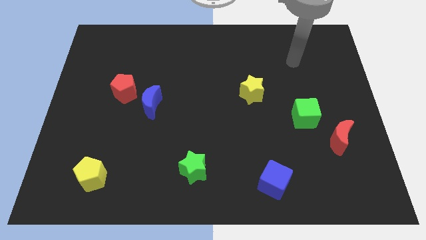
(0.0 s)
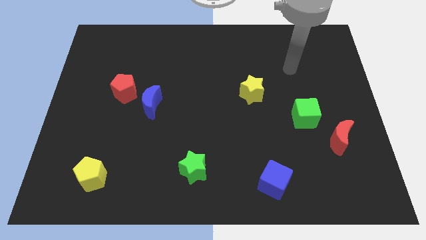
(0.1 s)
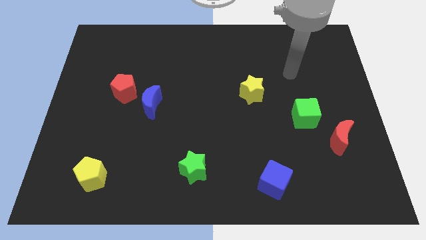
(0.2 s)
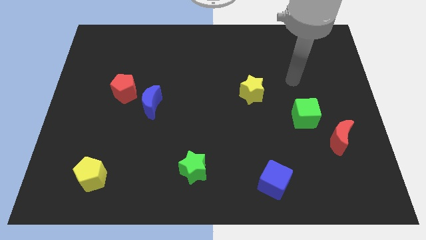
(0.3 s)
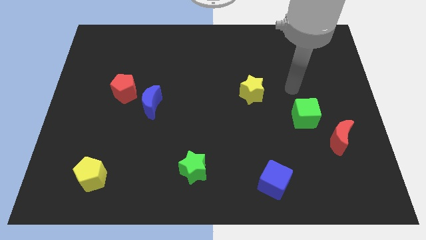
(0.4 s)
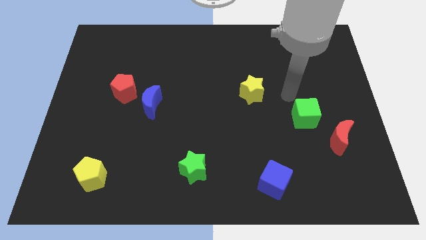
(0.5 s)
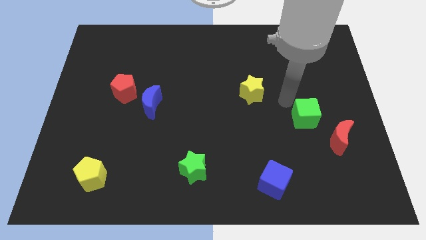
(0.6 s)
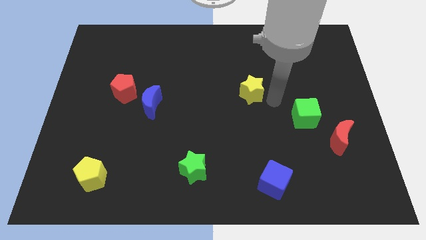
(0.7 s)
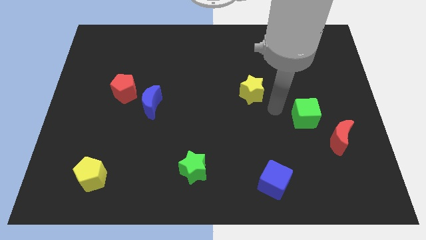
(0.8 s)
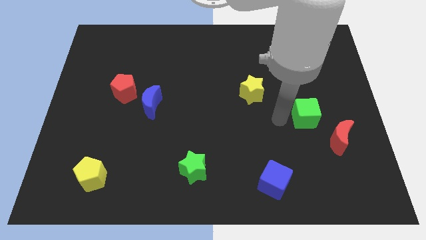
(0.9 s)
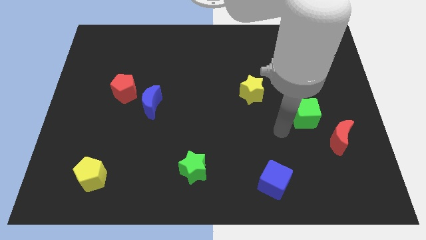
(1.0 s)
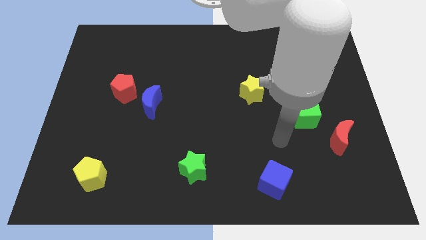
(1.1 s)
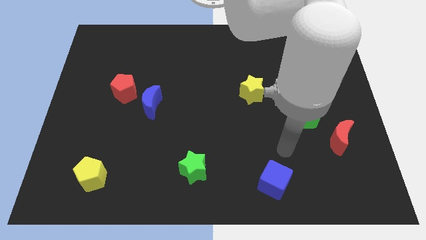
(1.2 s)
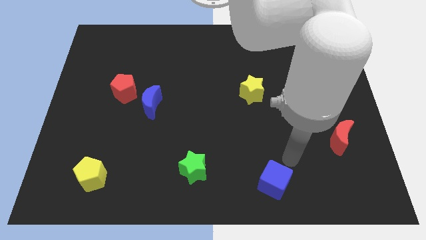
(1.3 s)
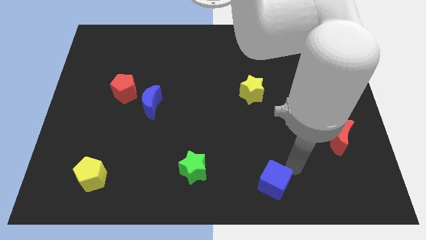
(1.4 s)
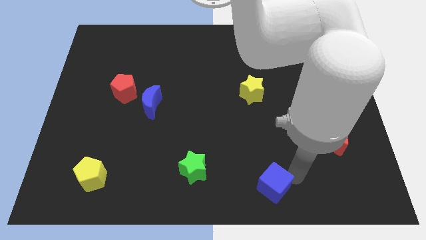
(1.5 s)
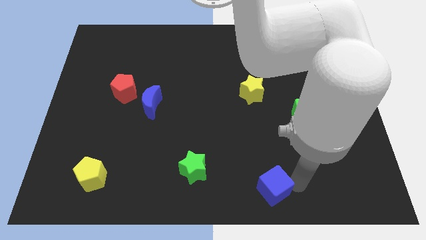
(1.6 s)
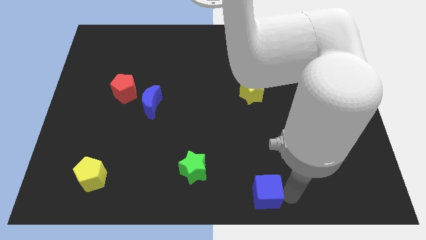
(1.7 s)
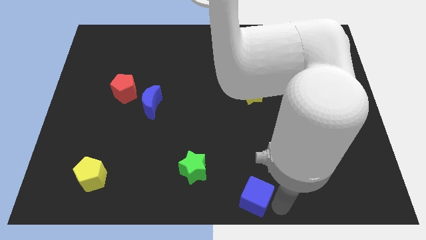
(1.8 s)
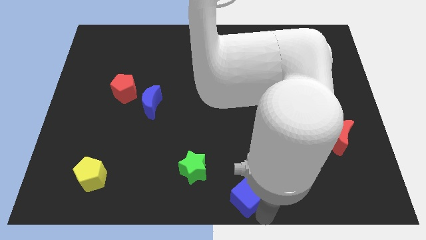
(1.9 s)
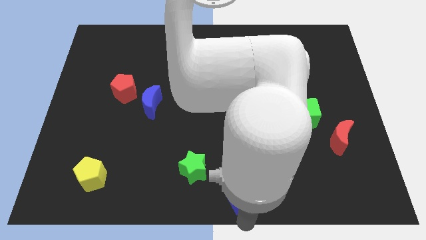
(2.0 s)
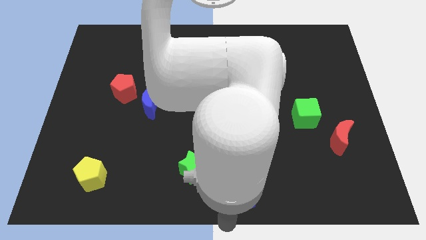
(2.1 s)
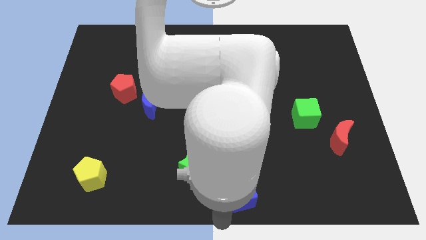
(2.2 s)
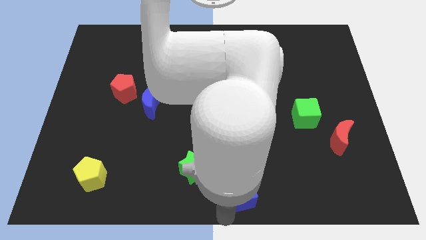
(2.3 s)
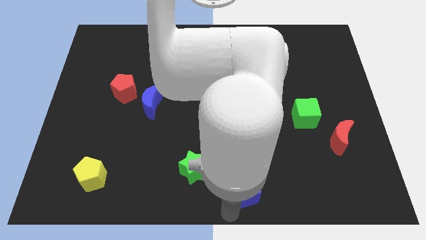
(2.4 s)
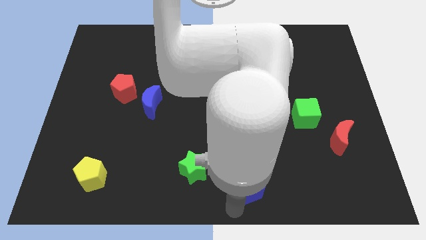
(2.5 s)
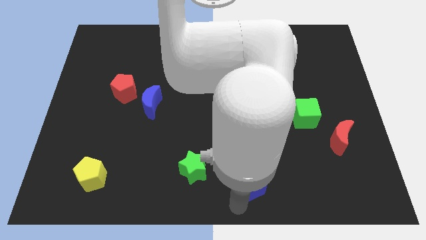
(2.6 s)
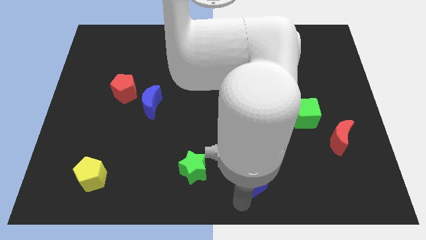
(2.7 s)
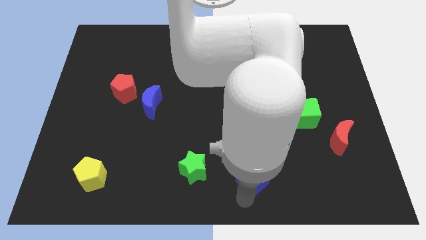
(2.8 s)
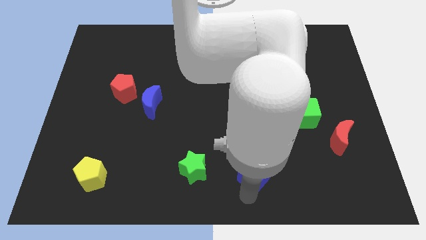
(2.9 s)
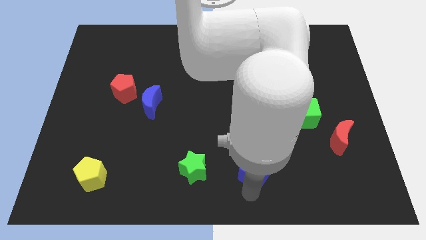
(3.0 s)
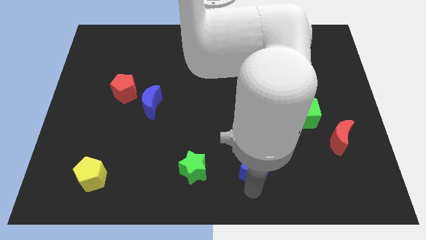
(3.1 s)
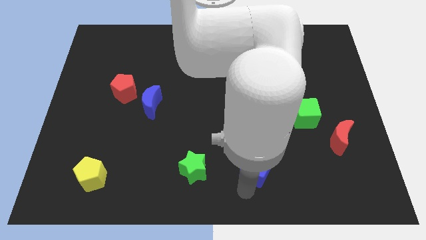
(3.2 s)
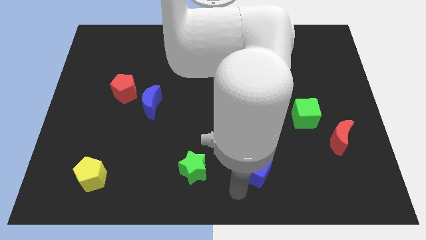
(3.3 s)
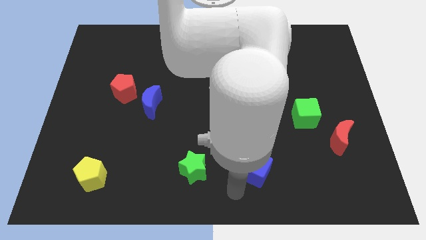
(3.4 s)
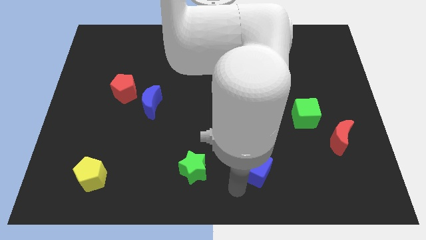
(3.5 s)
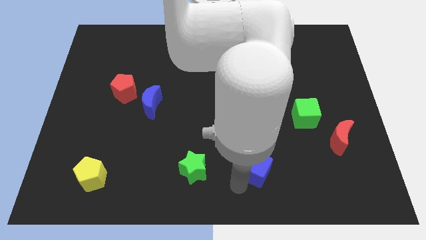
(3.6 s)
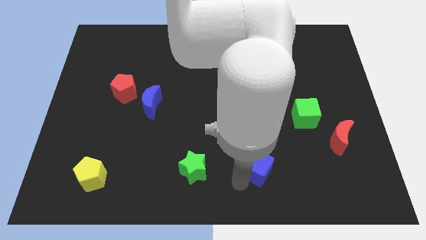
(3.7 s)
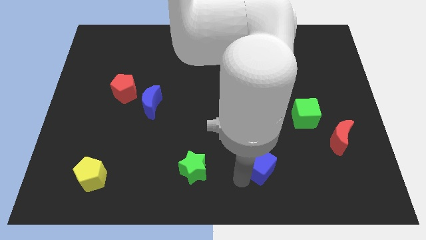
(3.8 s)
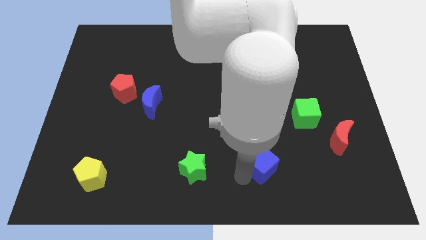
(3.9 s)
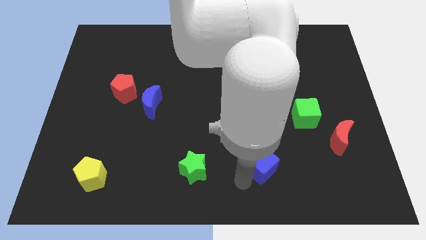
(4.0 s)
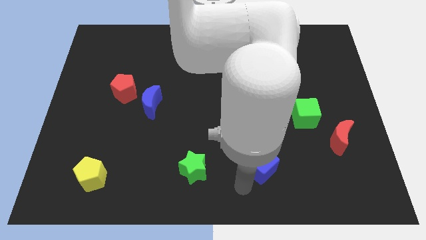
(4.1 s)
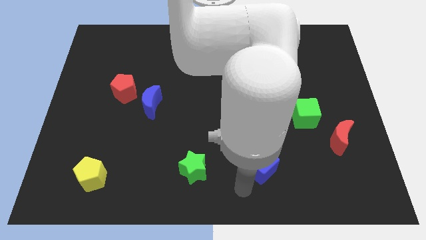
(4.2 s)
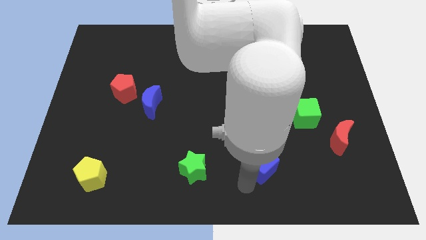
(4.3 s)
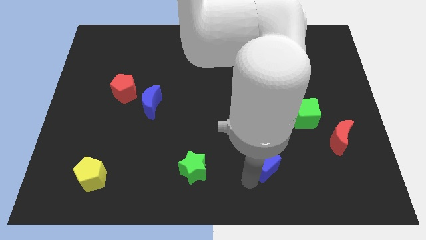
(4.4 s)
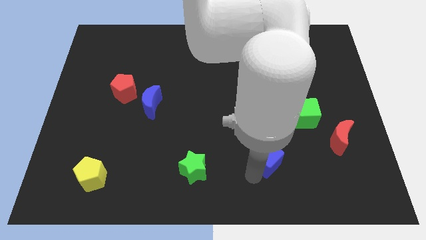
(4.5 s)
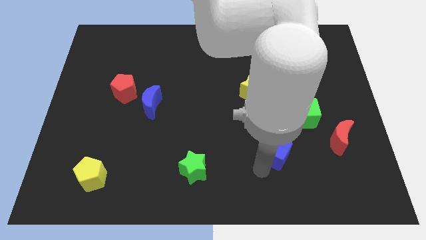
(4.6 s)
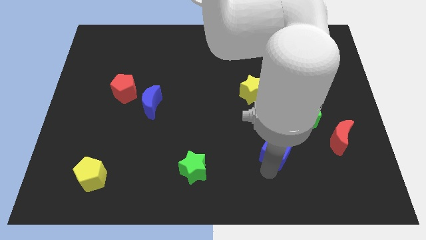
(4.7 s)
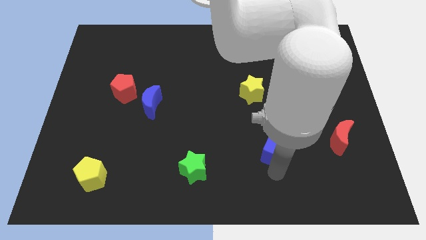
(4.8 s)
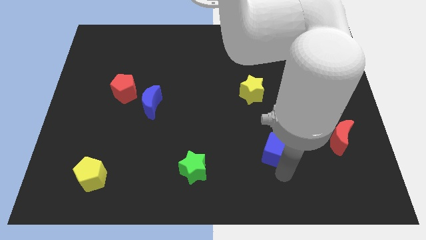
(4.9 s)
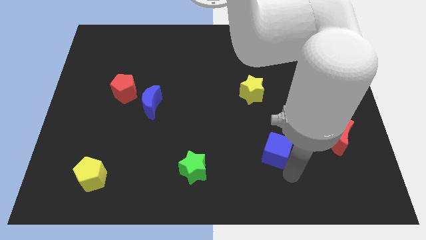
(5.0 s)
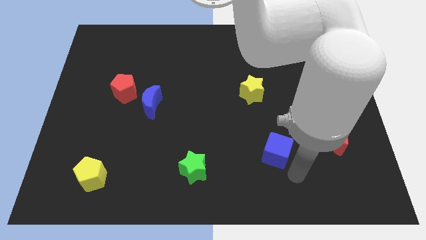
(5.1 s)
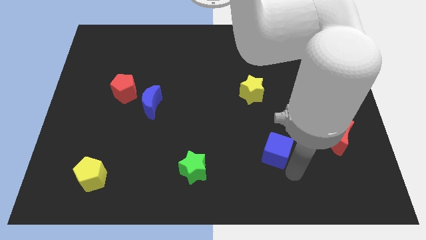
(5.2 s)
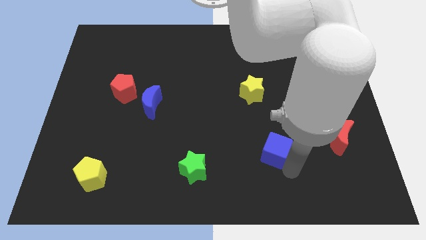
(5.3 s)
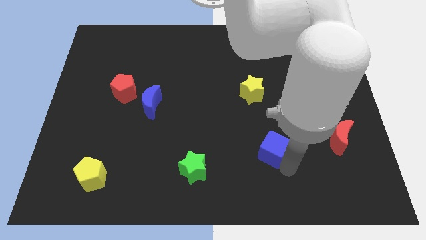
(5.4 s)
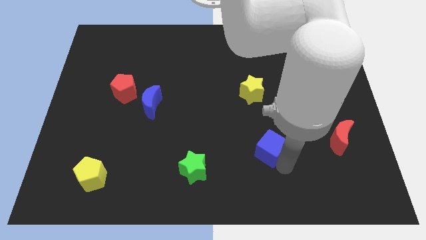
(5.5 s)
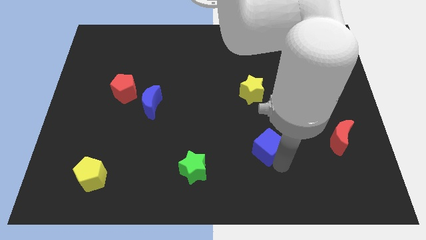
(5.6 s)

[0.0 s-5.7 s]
move the blue cube below the yellow star

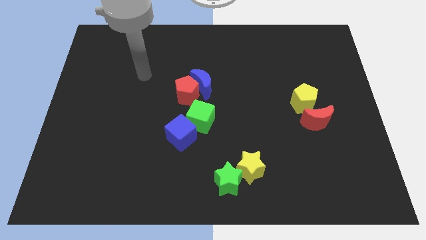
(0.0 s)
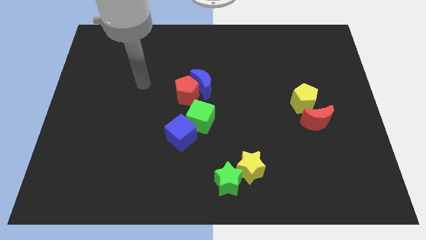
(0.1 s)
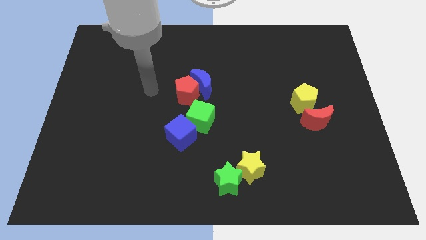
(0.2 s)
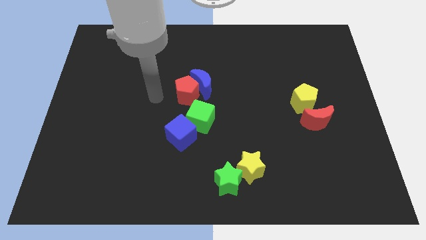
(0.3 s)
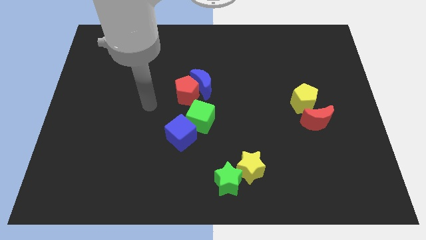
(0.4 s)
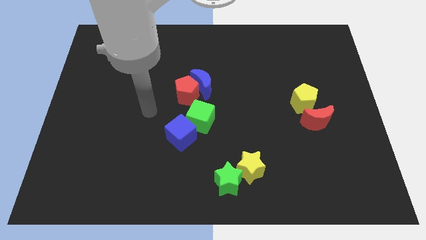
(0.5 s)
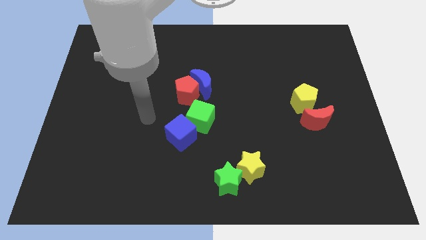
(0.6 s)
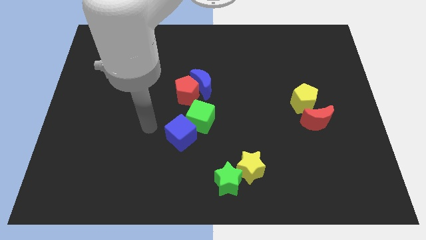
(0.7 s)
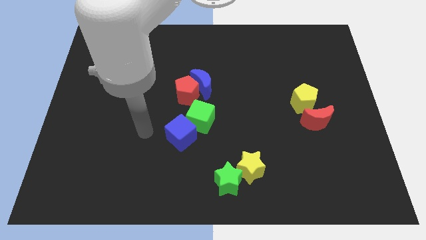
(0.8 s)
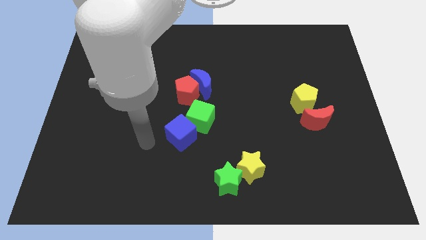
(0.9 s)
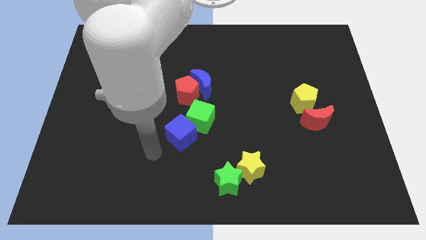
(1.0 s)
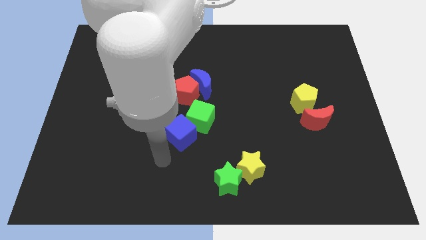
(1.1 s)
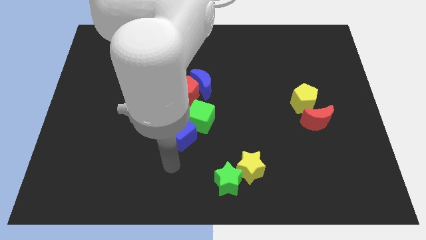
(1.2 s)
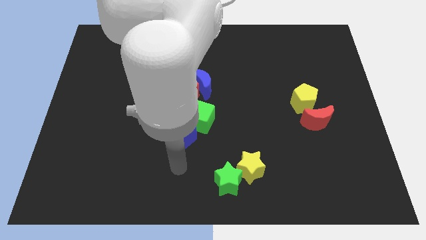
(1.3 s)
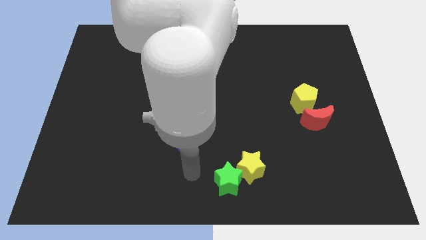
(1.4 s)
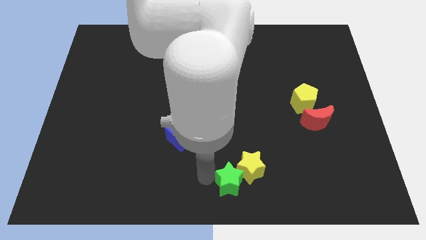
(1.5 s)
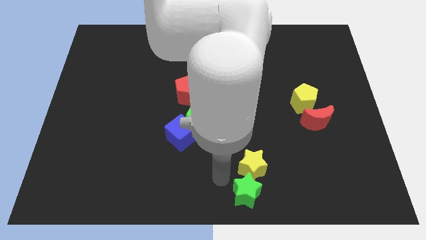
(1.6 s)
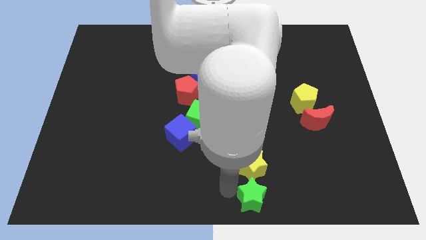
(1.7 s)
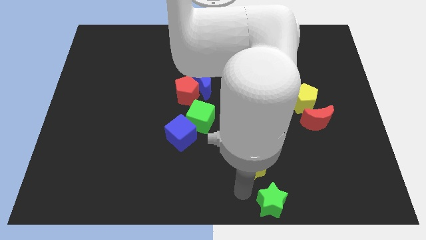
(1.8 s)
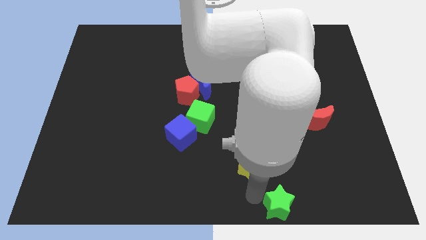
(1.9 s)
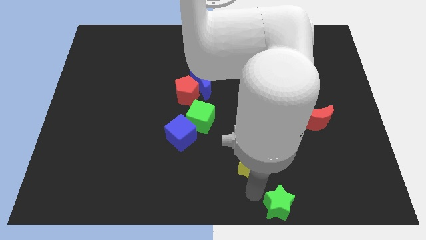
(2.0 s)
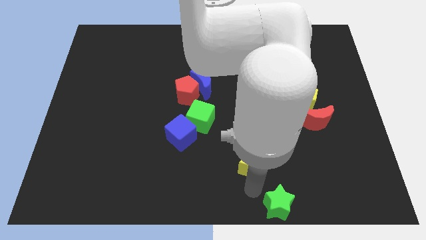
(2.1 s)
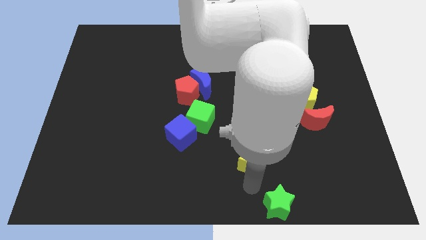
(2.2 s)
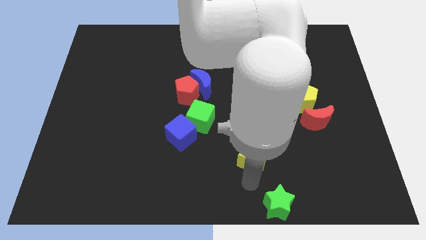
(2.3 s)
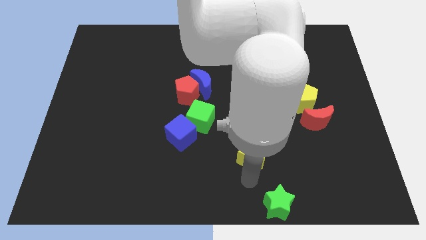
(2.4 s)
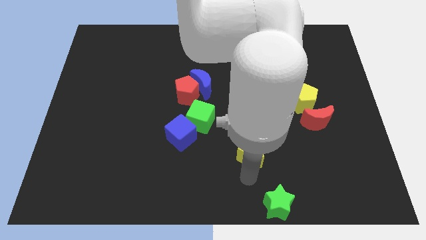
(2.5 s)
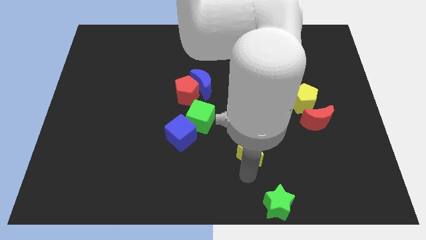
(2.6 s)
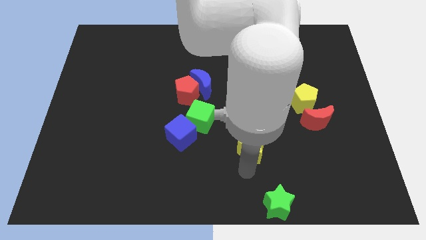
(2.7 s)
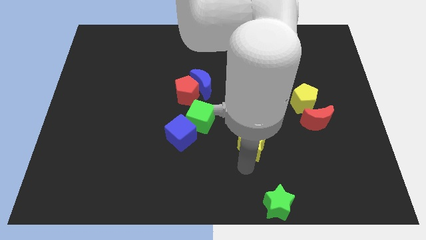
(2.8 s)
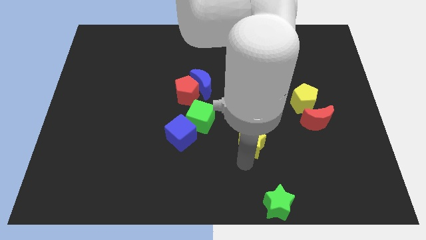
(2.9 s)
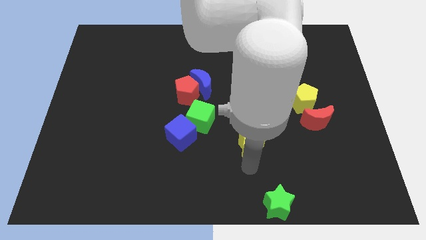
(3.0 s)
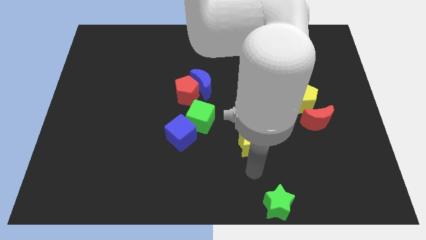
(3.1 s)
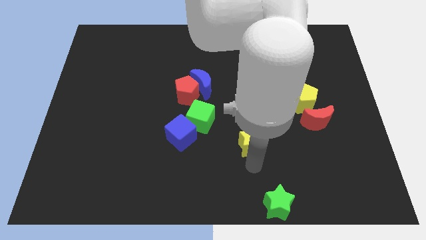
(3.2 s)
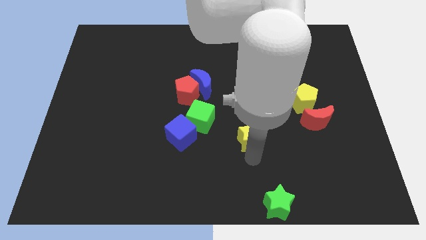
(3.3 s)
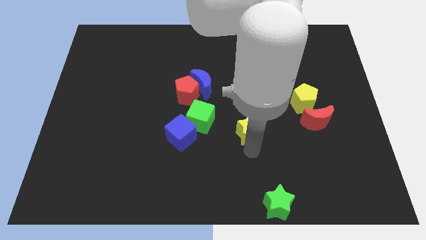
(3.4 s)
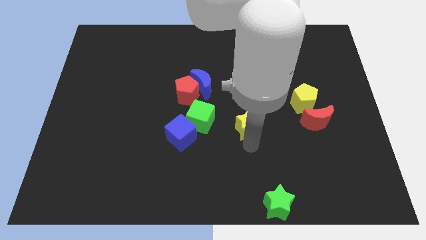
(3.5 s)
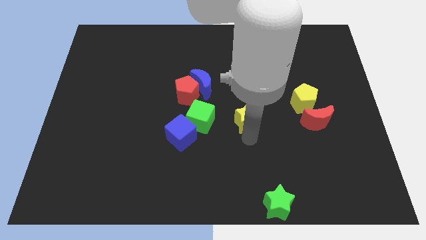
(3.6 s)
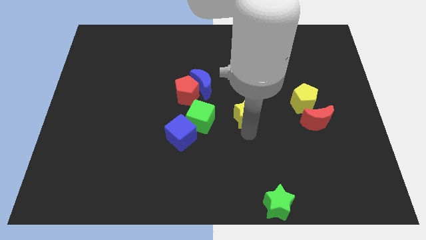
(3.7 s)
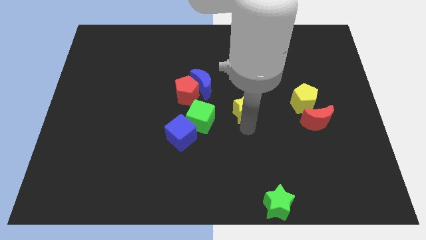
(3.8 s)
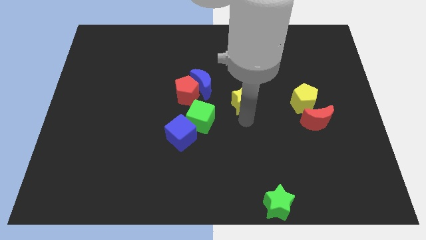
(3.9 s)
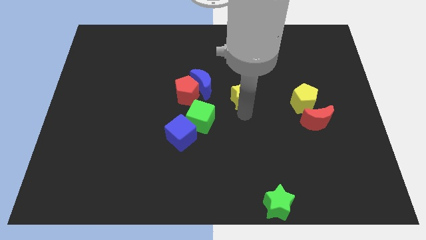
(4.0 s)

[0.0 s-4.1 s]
move the yellow star just right of the blue moon
